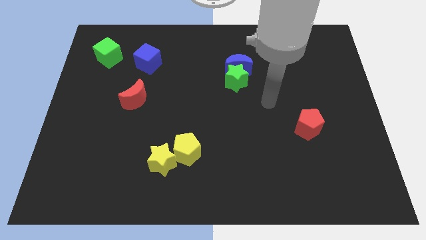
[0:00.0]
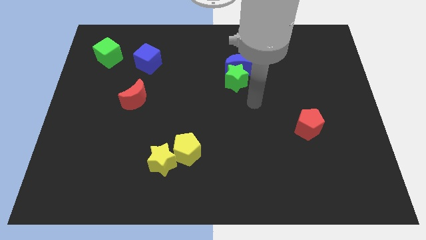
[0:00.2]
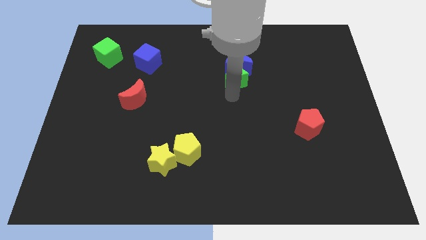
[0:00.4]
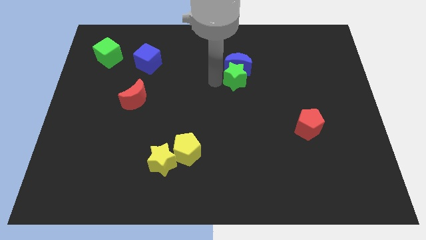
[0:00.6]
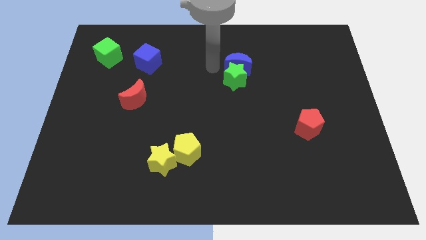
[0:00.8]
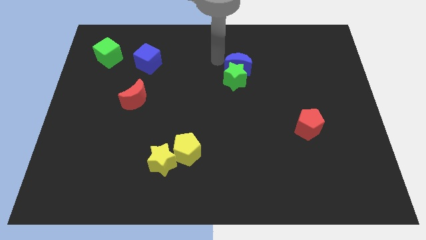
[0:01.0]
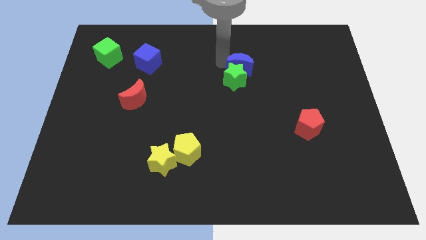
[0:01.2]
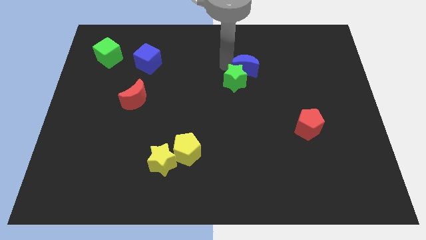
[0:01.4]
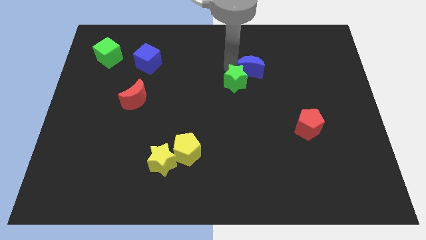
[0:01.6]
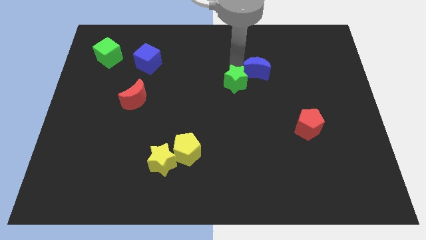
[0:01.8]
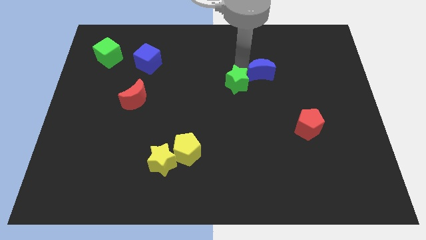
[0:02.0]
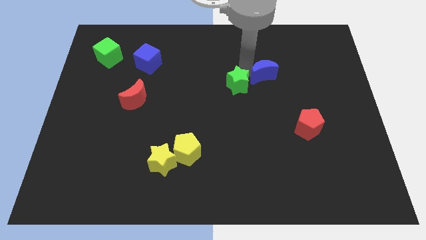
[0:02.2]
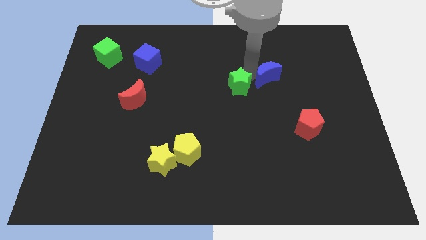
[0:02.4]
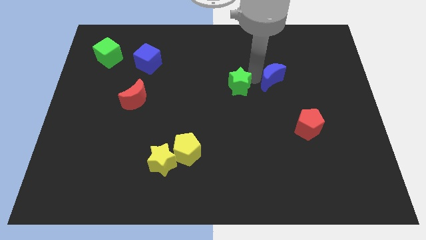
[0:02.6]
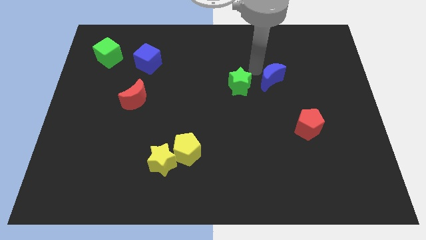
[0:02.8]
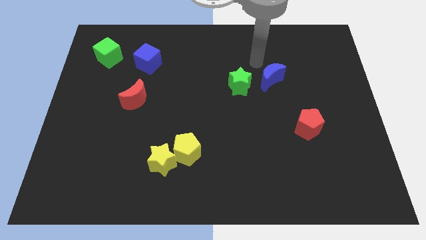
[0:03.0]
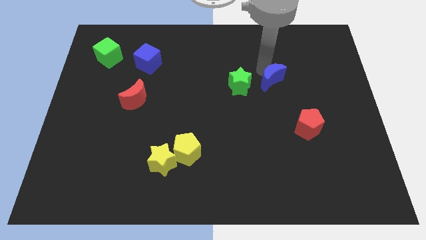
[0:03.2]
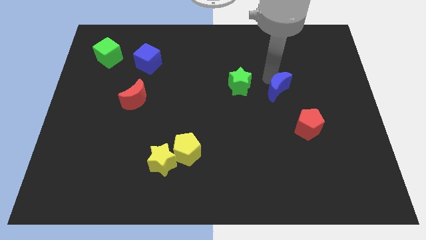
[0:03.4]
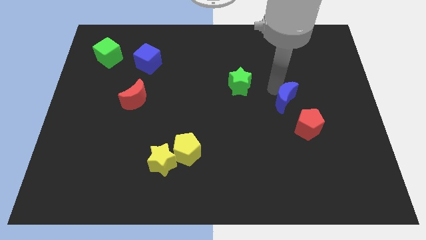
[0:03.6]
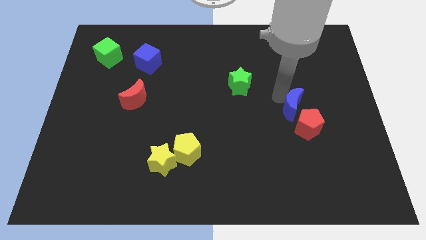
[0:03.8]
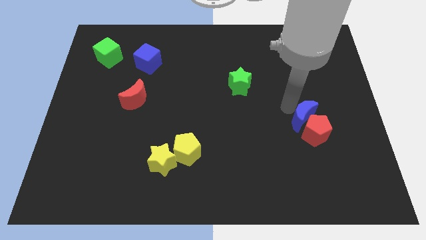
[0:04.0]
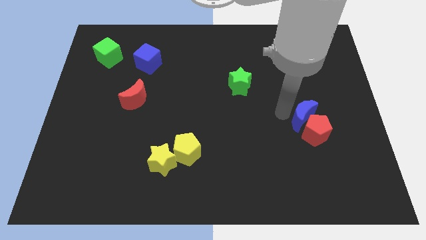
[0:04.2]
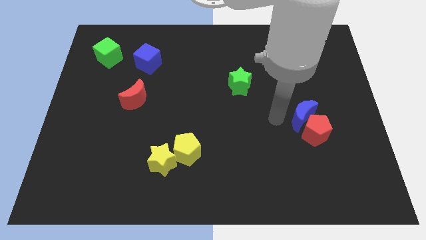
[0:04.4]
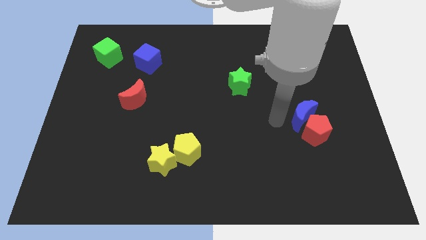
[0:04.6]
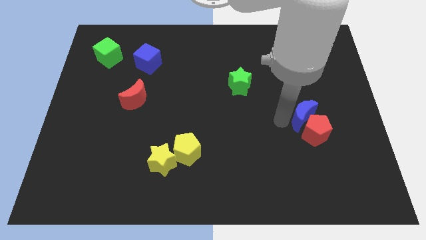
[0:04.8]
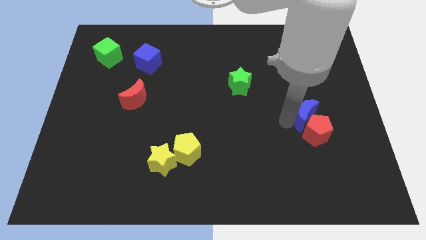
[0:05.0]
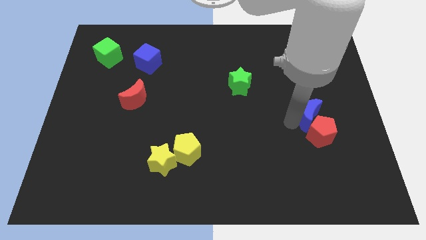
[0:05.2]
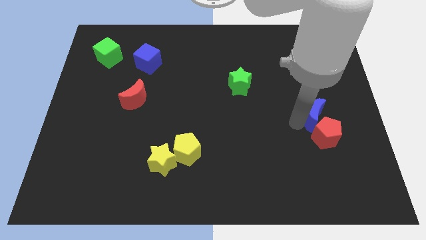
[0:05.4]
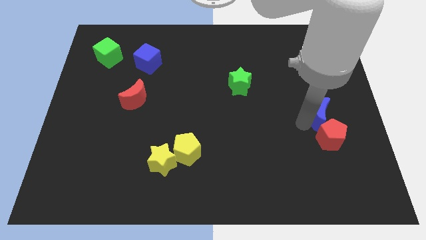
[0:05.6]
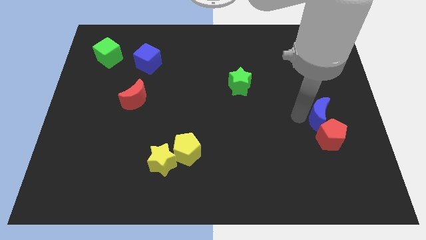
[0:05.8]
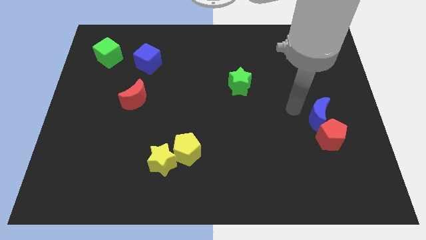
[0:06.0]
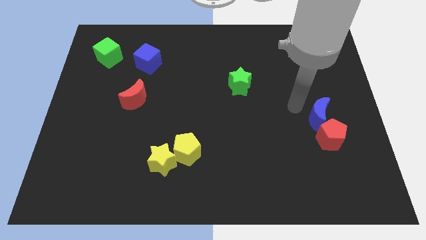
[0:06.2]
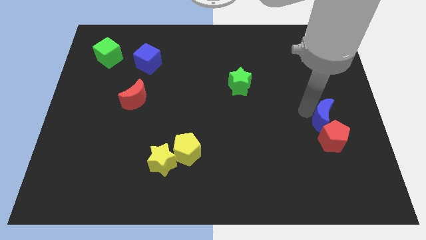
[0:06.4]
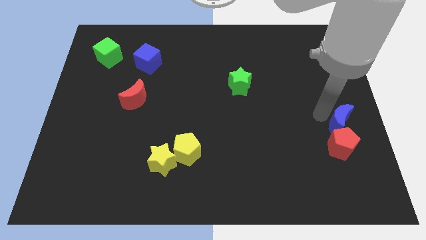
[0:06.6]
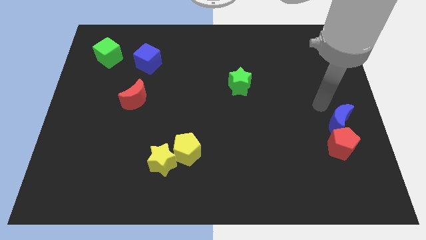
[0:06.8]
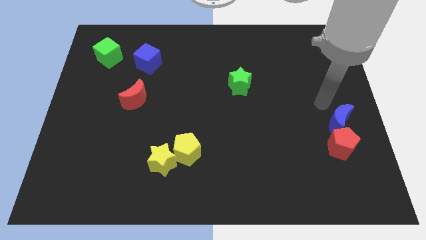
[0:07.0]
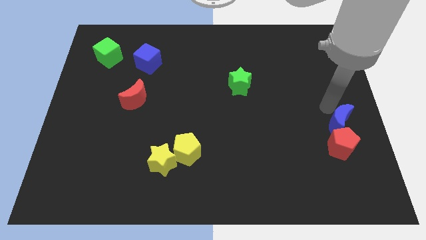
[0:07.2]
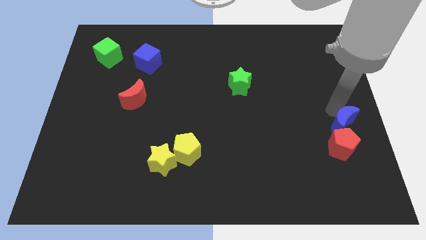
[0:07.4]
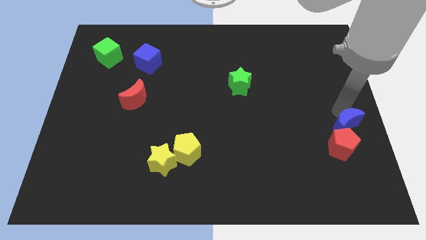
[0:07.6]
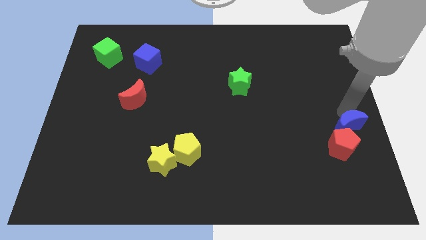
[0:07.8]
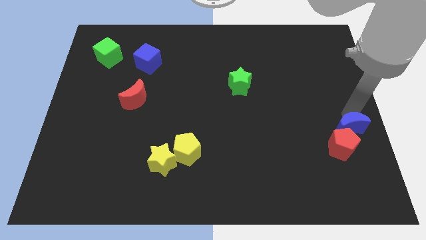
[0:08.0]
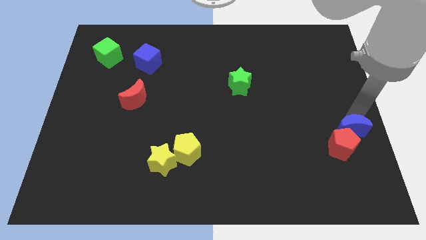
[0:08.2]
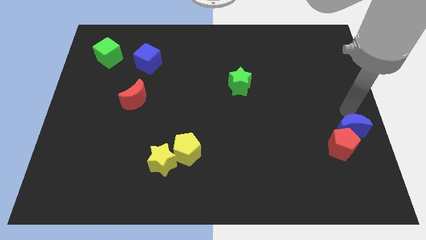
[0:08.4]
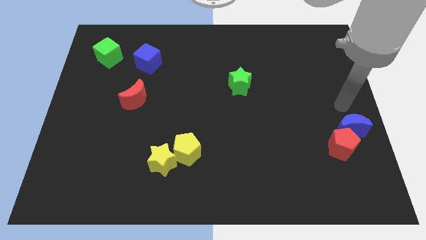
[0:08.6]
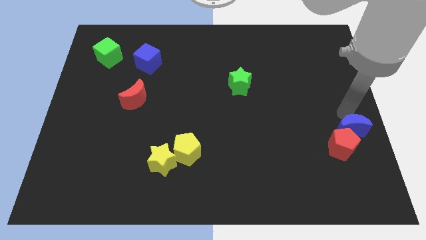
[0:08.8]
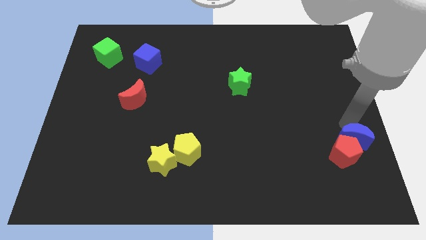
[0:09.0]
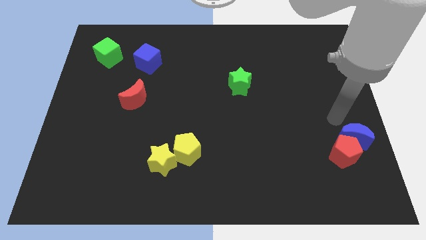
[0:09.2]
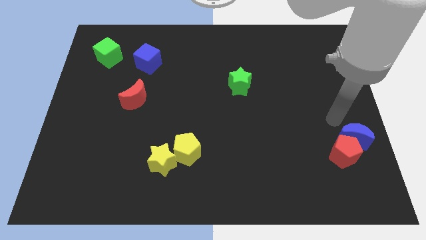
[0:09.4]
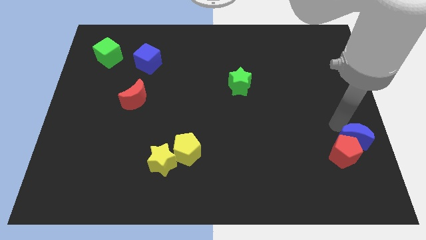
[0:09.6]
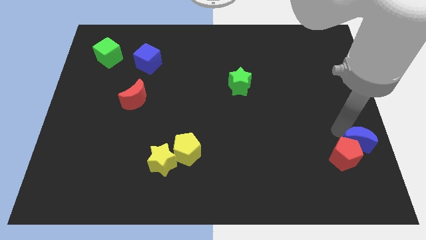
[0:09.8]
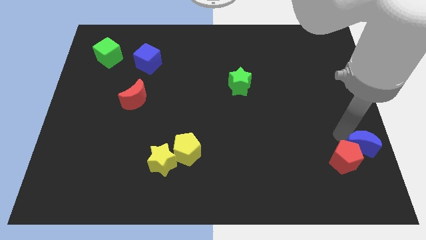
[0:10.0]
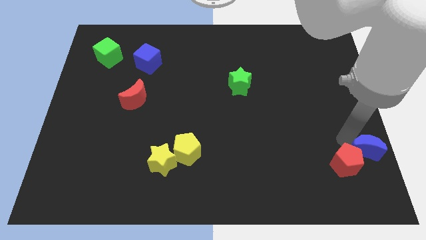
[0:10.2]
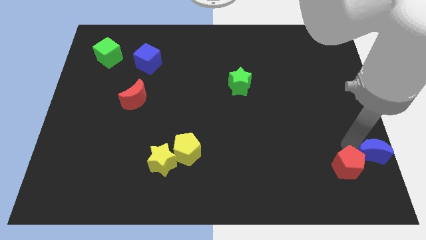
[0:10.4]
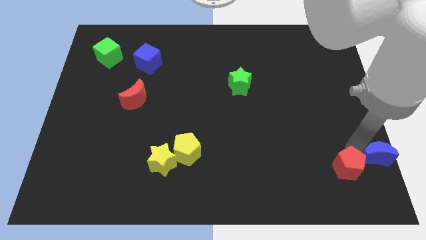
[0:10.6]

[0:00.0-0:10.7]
slide the blue moon to the bottom right

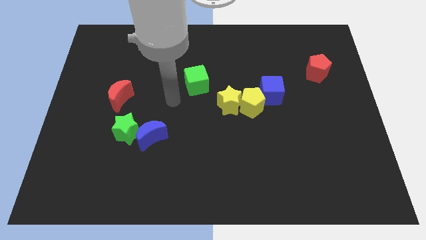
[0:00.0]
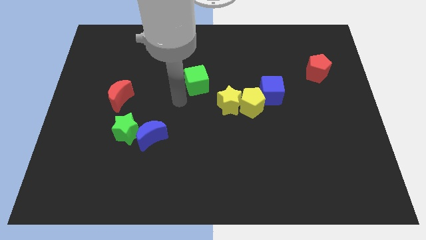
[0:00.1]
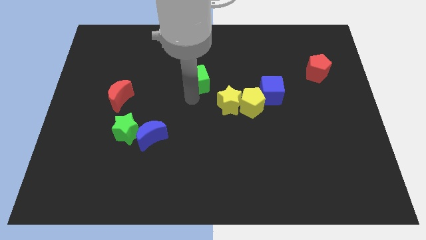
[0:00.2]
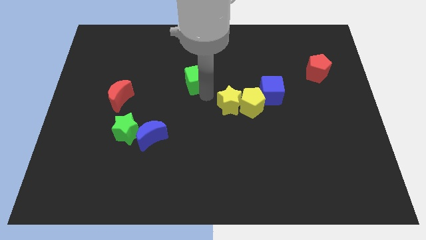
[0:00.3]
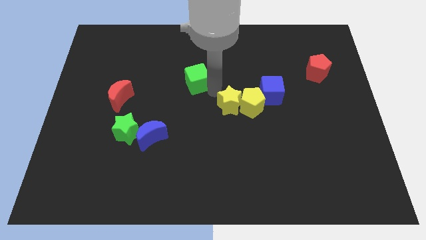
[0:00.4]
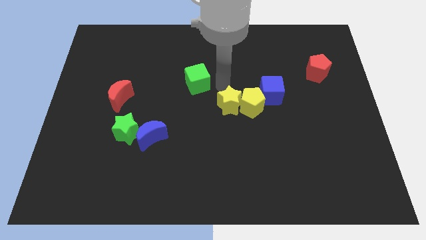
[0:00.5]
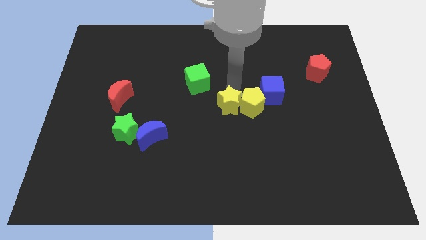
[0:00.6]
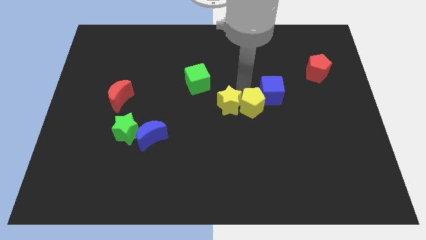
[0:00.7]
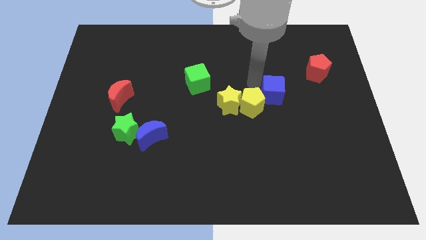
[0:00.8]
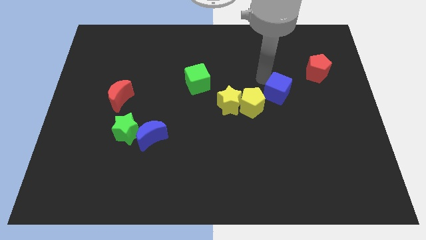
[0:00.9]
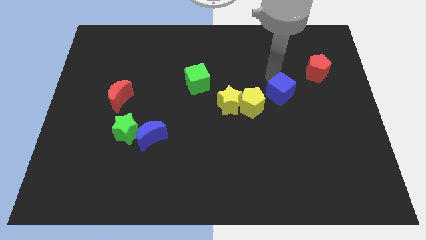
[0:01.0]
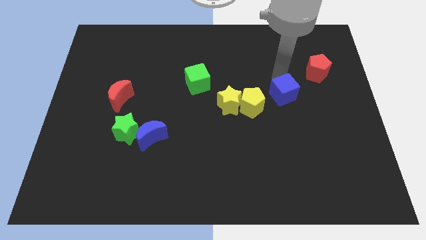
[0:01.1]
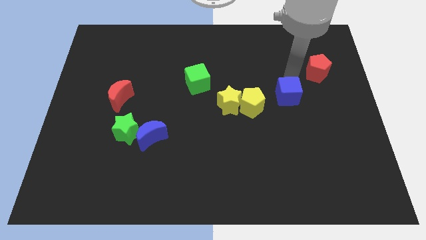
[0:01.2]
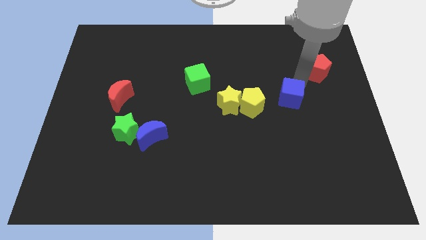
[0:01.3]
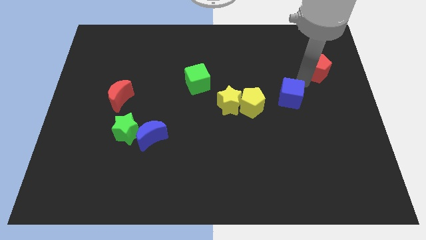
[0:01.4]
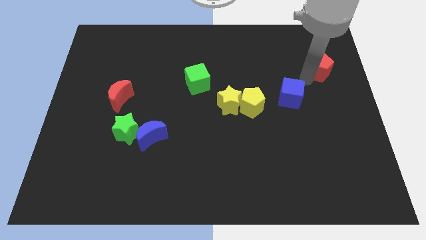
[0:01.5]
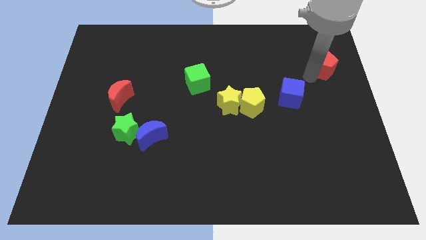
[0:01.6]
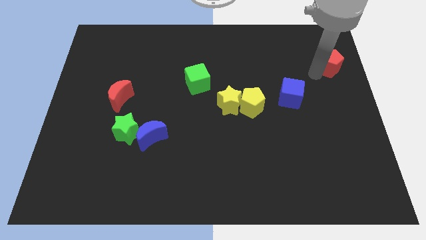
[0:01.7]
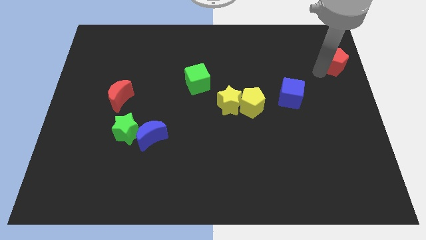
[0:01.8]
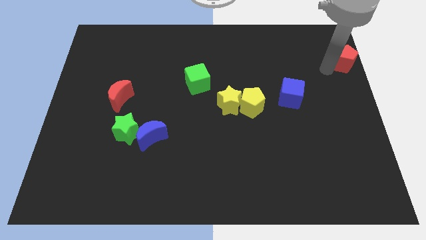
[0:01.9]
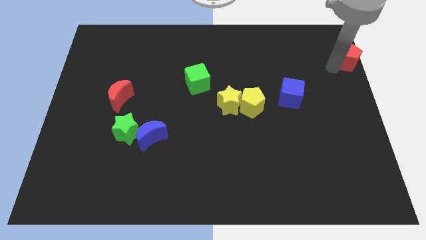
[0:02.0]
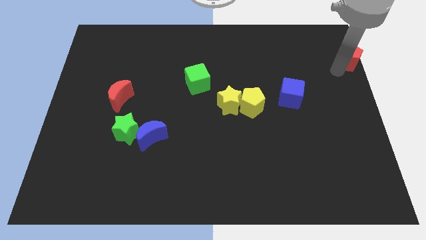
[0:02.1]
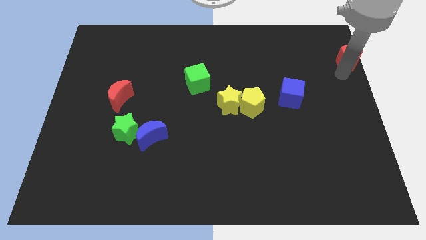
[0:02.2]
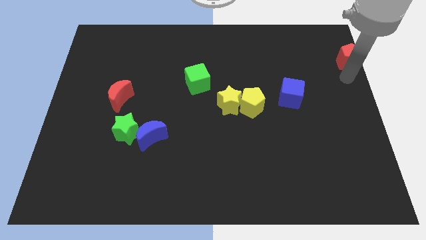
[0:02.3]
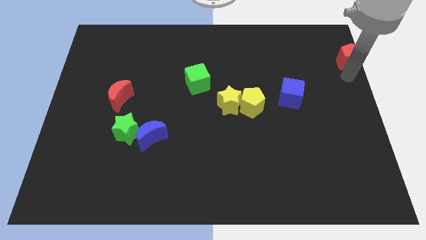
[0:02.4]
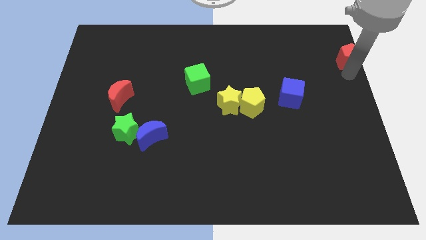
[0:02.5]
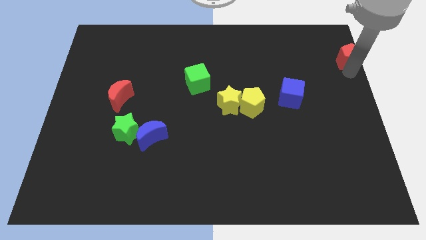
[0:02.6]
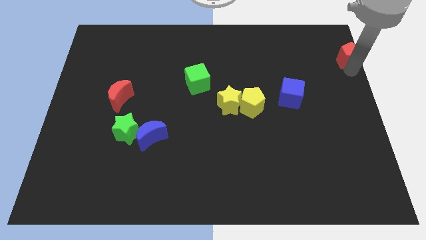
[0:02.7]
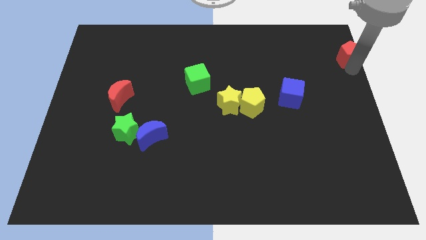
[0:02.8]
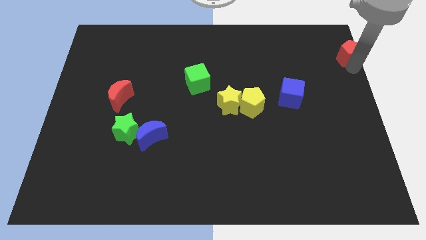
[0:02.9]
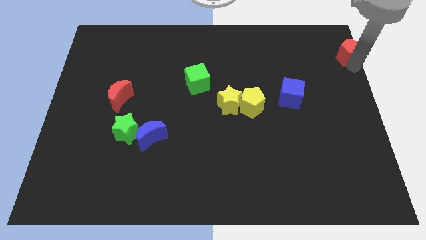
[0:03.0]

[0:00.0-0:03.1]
slide the red pentagon to the top right
